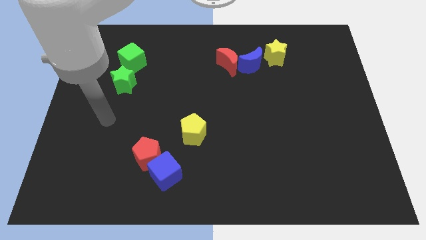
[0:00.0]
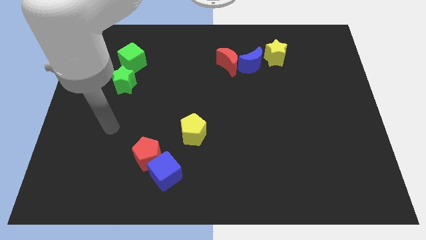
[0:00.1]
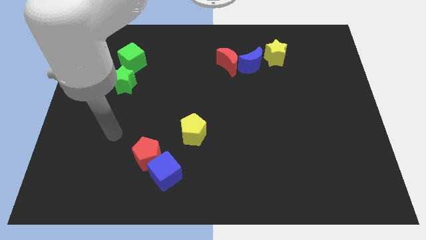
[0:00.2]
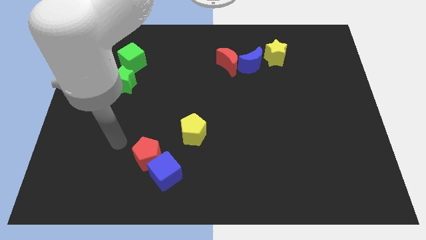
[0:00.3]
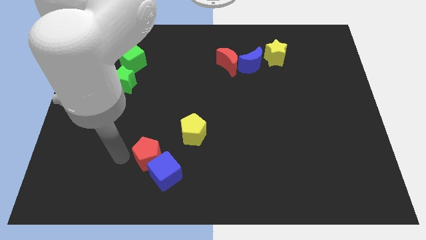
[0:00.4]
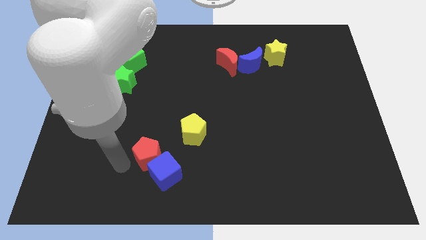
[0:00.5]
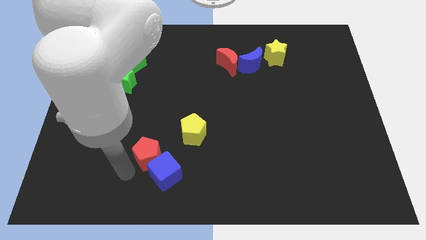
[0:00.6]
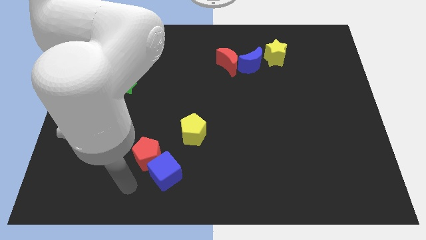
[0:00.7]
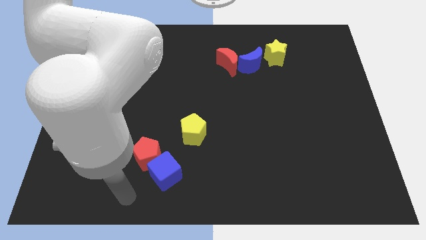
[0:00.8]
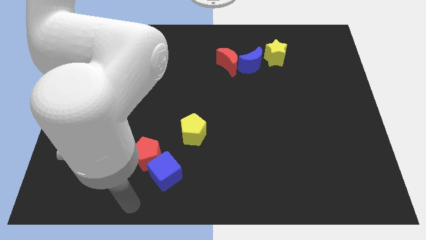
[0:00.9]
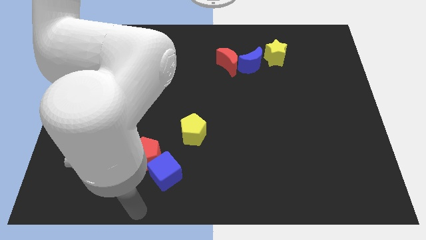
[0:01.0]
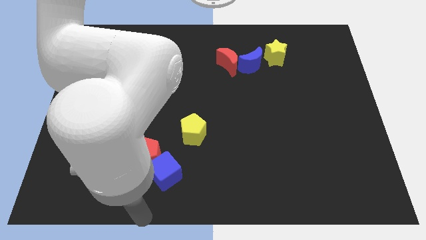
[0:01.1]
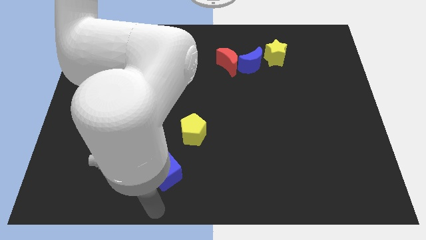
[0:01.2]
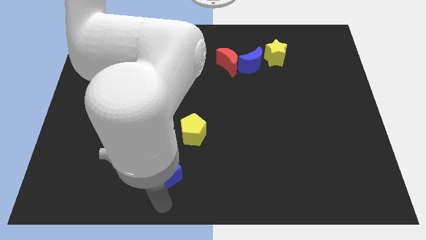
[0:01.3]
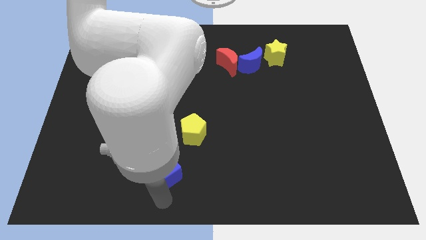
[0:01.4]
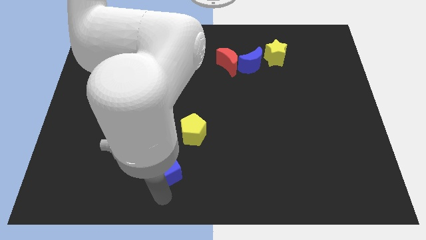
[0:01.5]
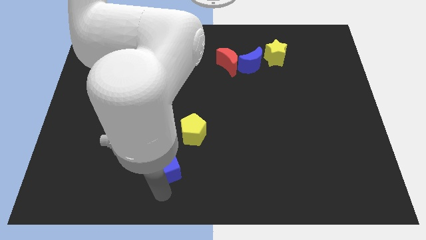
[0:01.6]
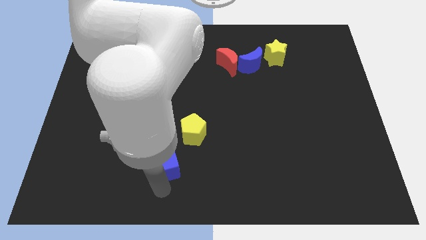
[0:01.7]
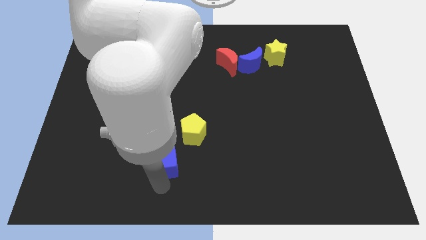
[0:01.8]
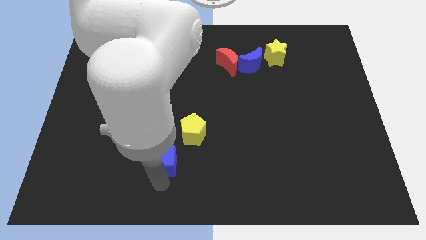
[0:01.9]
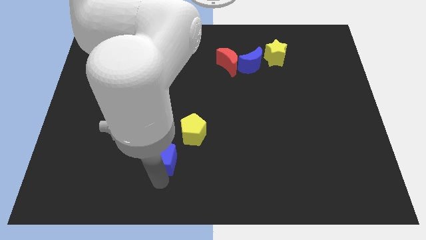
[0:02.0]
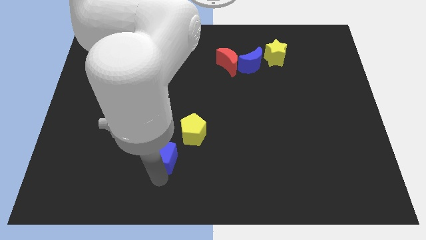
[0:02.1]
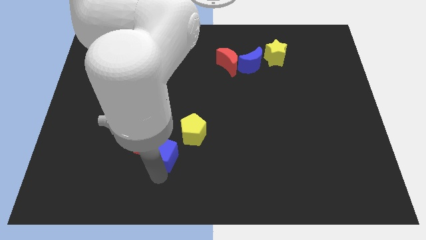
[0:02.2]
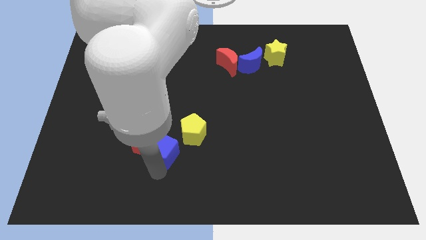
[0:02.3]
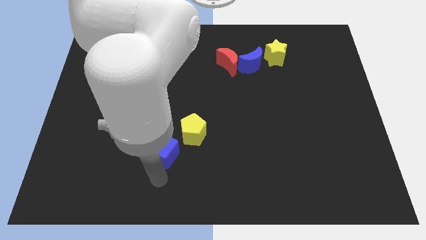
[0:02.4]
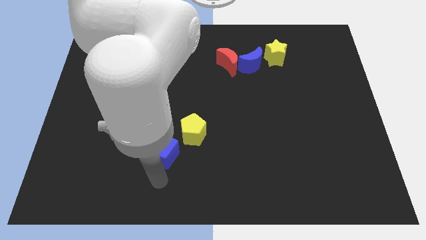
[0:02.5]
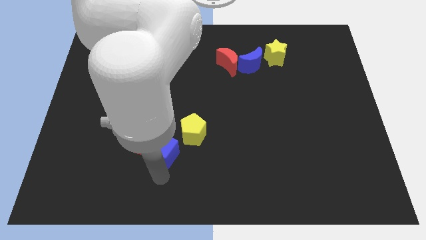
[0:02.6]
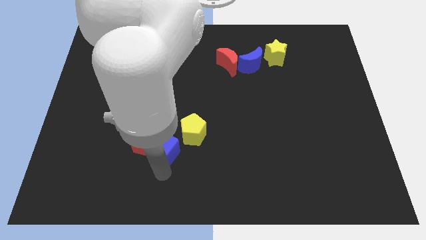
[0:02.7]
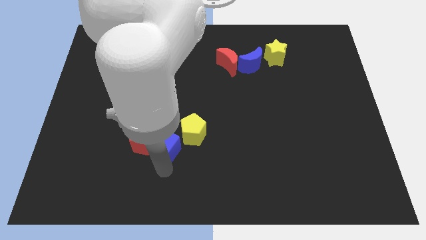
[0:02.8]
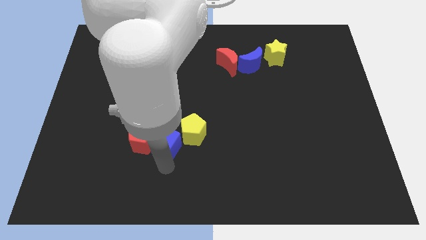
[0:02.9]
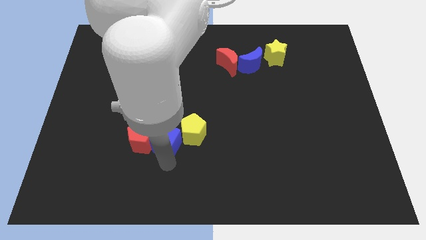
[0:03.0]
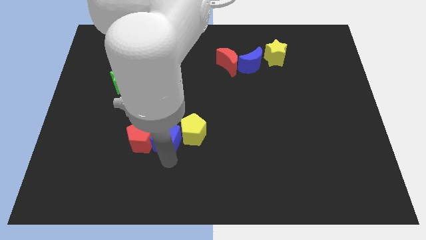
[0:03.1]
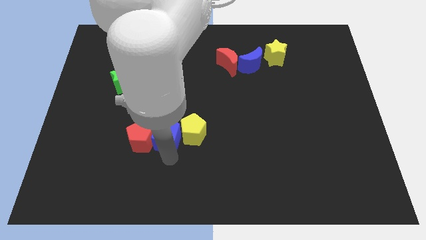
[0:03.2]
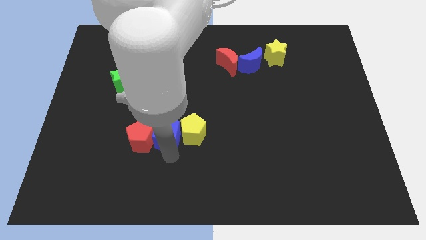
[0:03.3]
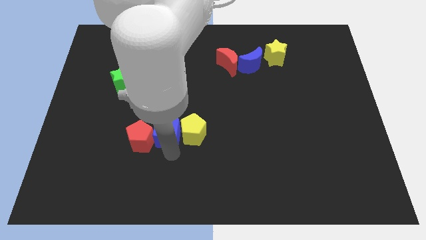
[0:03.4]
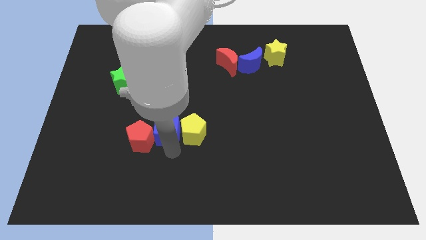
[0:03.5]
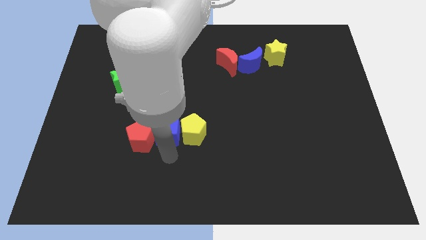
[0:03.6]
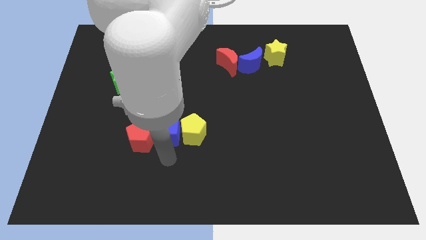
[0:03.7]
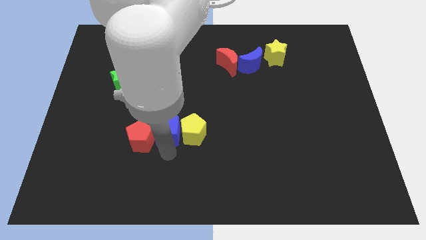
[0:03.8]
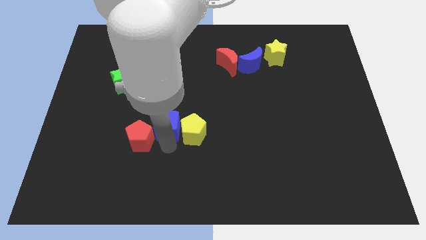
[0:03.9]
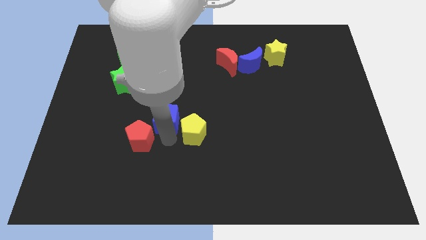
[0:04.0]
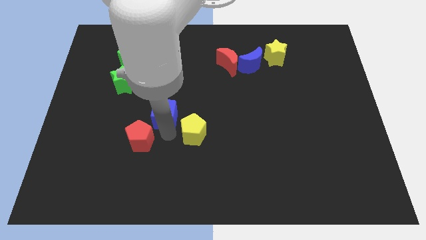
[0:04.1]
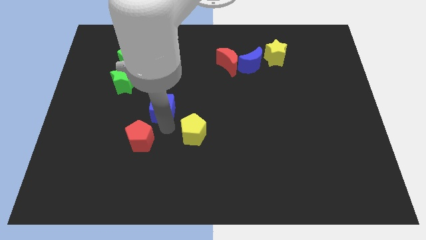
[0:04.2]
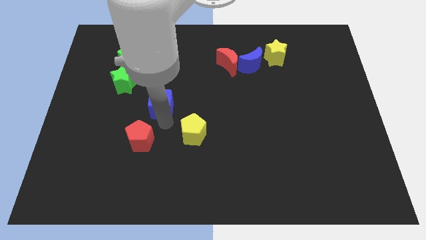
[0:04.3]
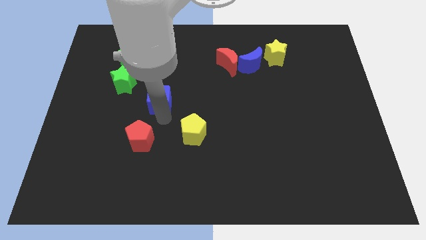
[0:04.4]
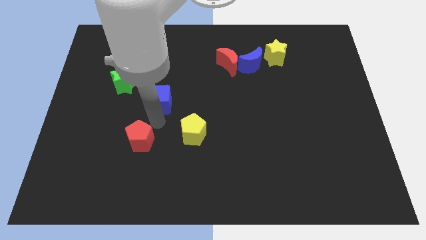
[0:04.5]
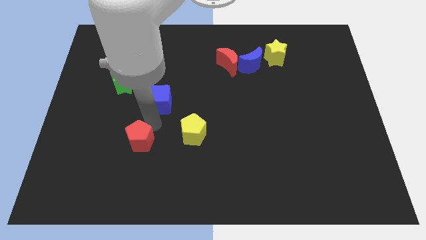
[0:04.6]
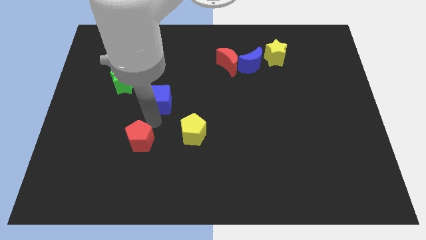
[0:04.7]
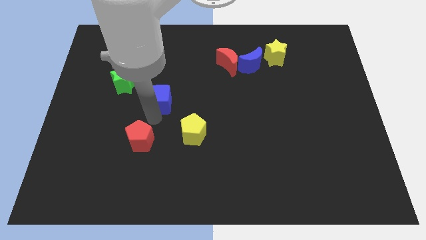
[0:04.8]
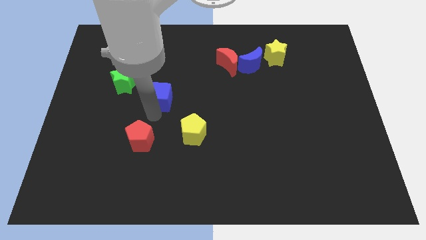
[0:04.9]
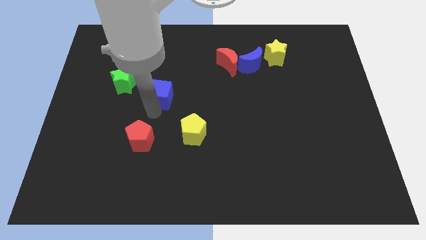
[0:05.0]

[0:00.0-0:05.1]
slide the blue cube up

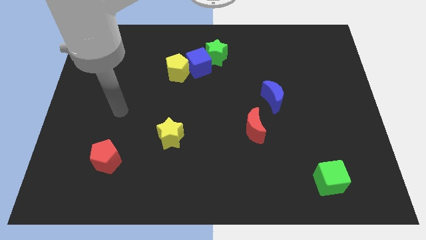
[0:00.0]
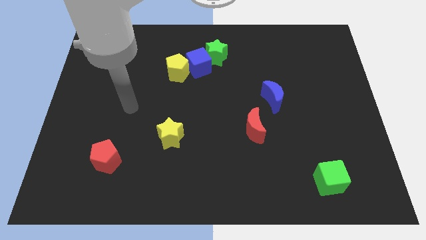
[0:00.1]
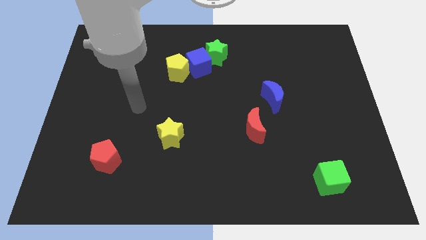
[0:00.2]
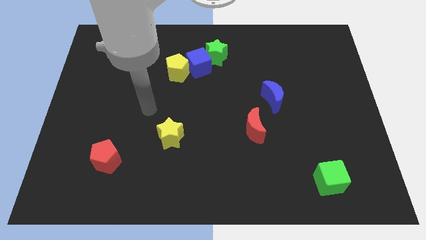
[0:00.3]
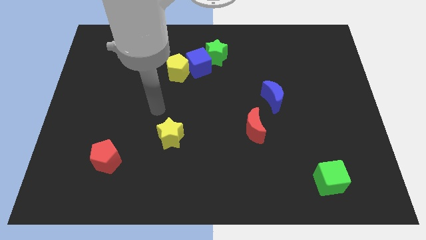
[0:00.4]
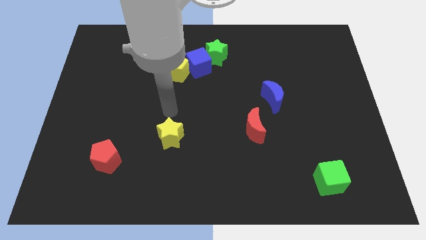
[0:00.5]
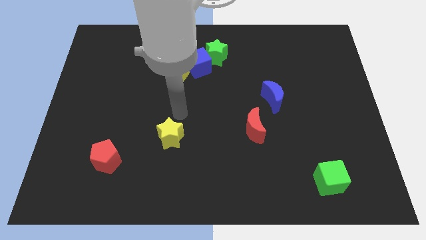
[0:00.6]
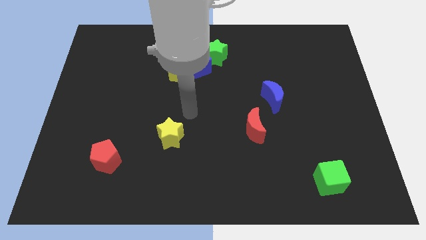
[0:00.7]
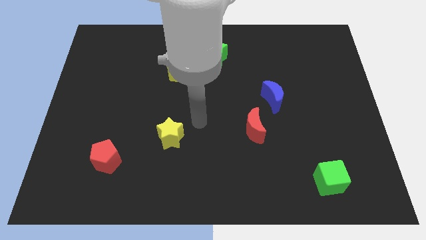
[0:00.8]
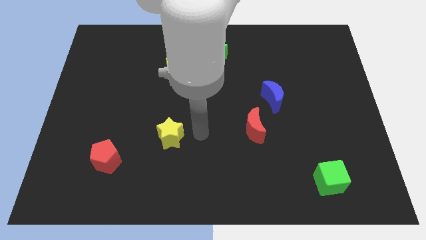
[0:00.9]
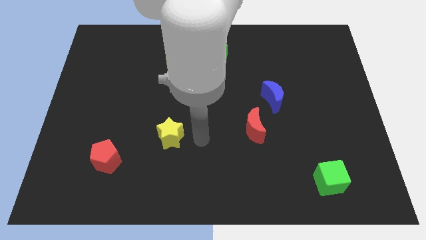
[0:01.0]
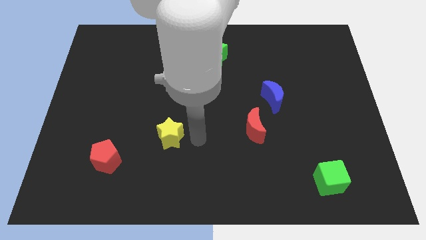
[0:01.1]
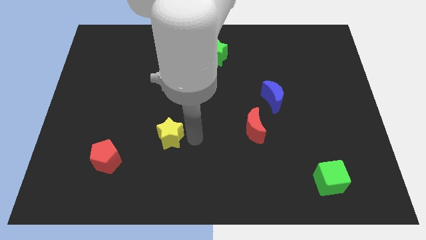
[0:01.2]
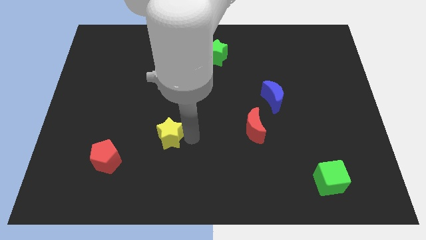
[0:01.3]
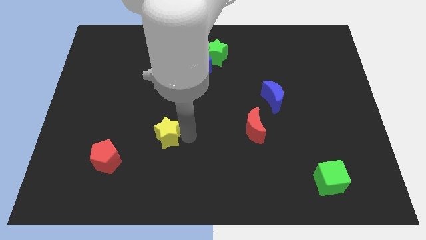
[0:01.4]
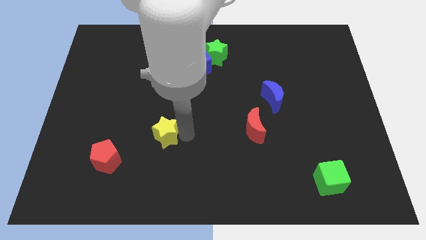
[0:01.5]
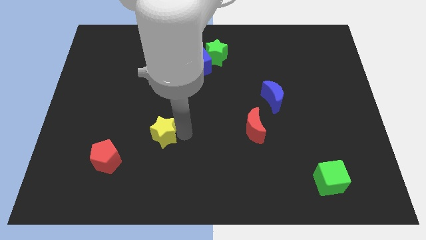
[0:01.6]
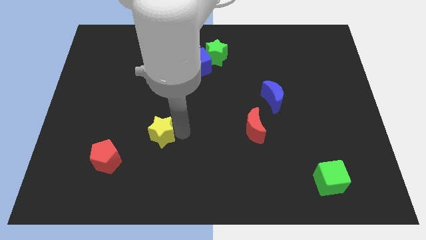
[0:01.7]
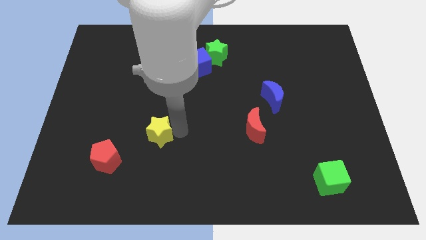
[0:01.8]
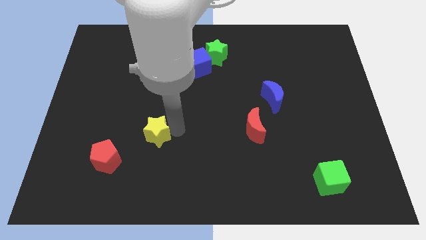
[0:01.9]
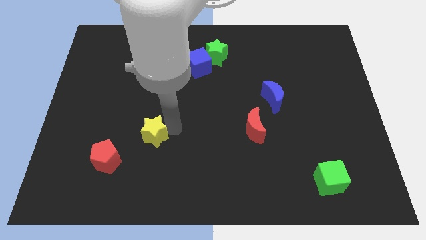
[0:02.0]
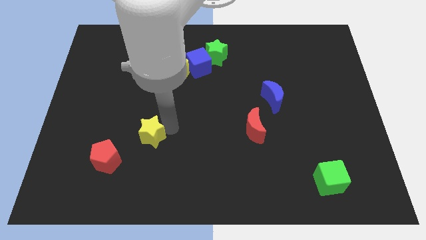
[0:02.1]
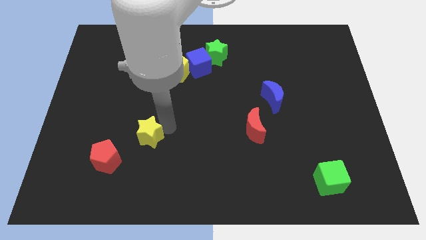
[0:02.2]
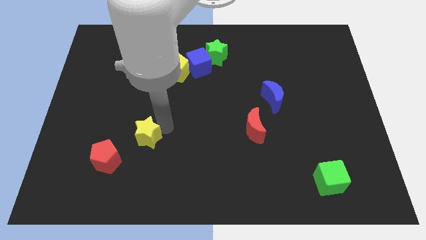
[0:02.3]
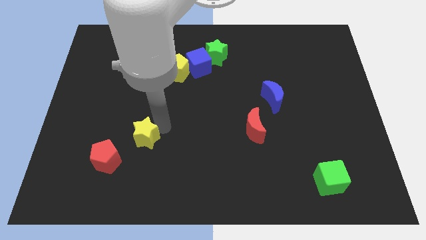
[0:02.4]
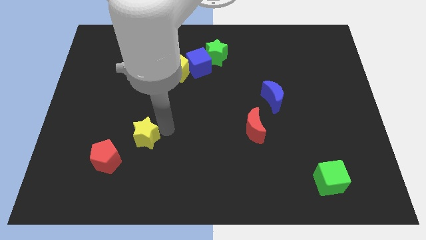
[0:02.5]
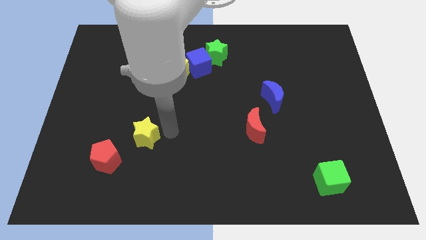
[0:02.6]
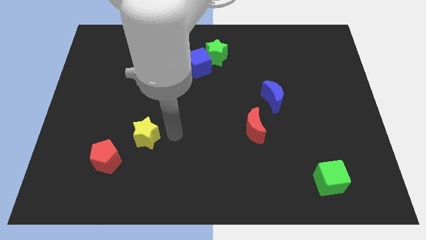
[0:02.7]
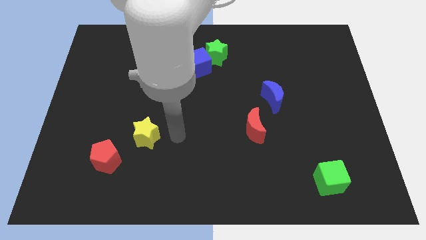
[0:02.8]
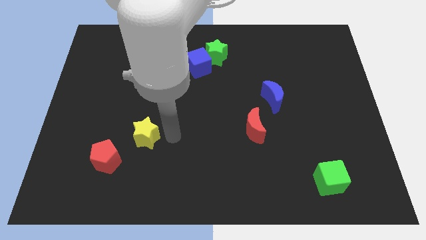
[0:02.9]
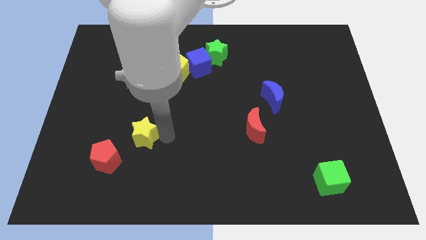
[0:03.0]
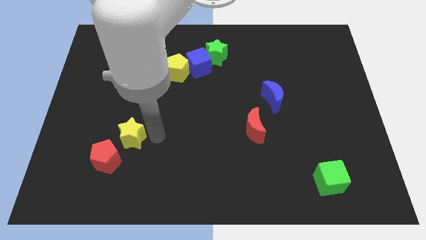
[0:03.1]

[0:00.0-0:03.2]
slightly slide the yellow star to the left
